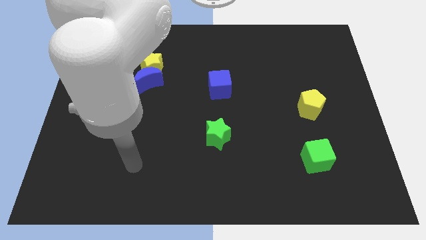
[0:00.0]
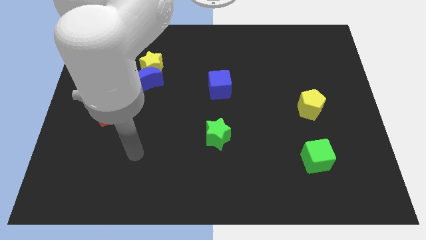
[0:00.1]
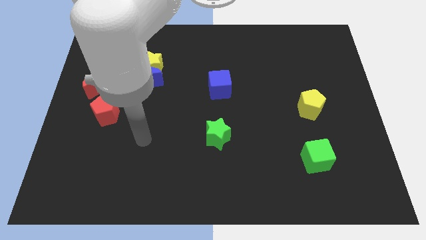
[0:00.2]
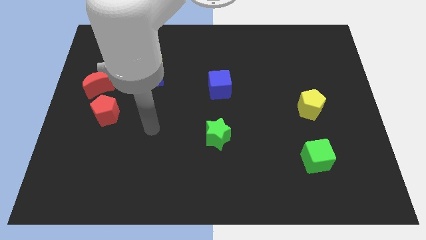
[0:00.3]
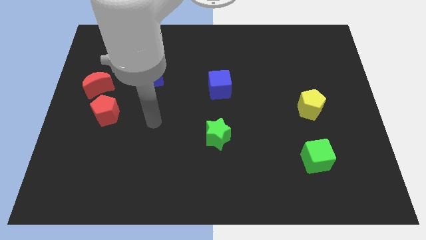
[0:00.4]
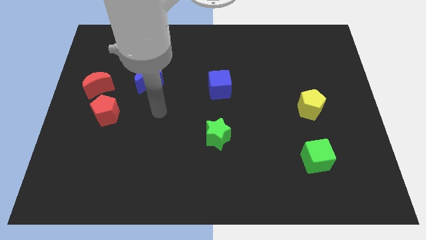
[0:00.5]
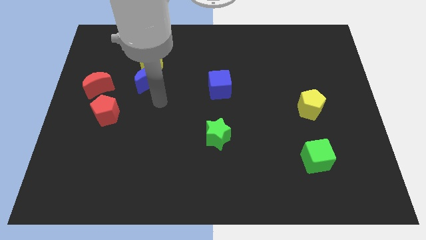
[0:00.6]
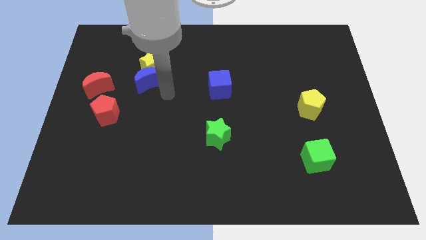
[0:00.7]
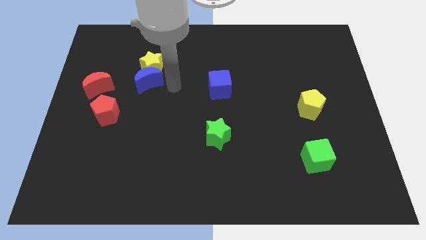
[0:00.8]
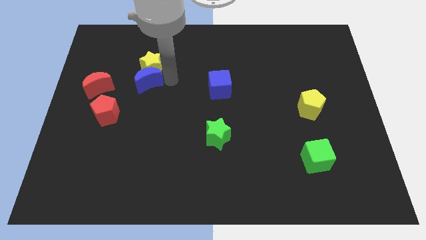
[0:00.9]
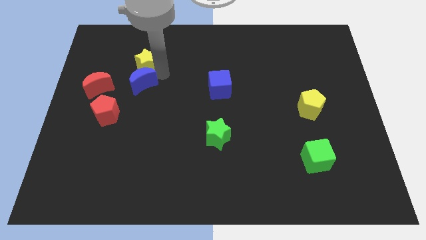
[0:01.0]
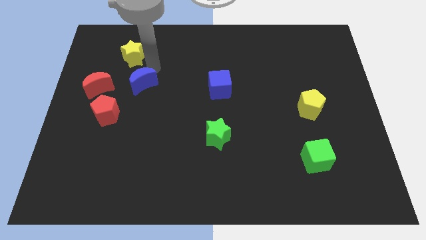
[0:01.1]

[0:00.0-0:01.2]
move the blue moon away from the yellow star

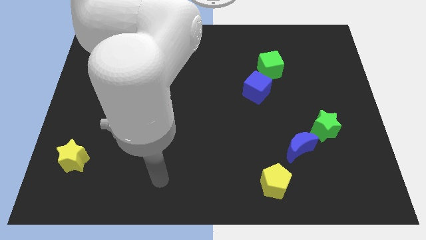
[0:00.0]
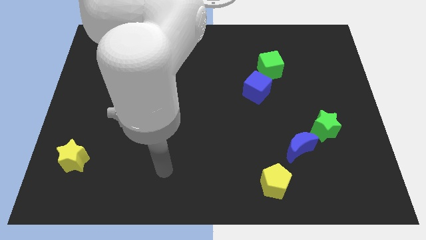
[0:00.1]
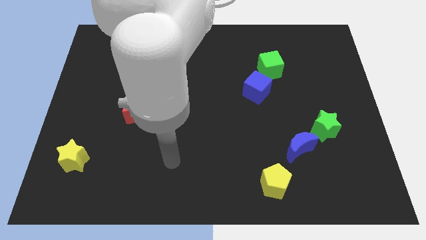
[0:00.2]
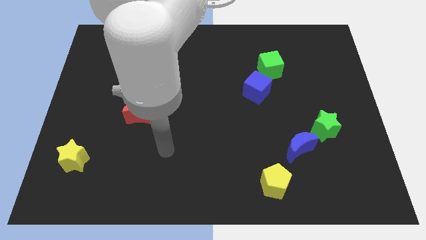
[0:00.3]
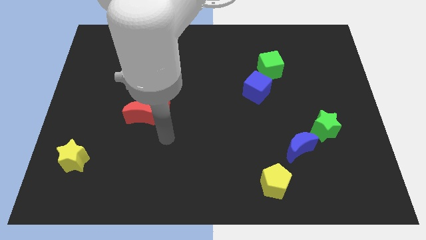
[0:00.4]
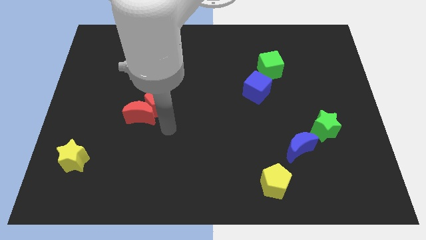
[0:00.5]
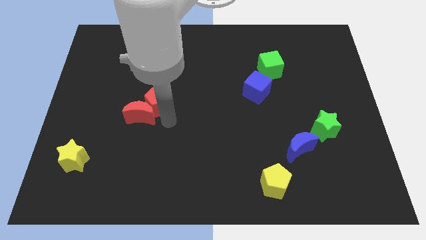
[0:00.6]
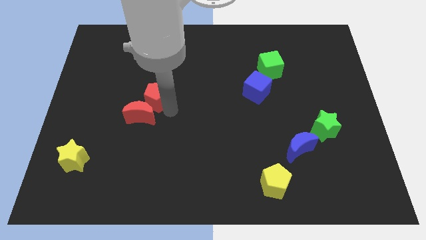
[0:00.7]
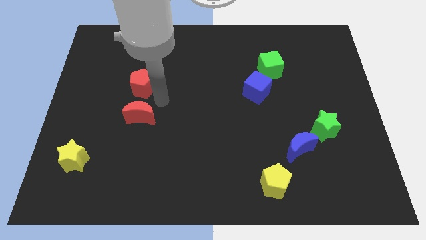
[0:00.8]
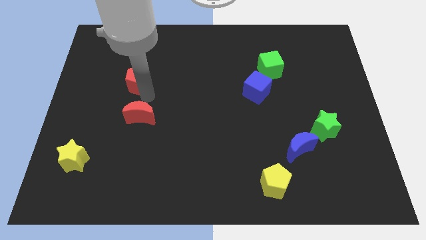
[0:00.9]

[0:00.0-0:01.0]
move the red moon away from the red pentagon

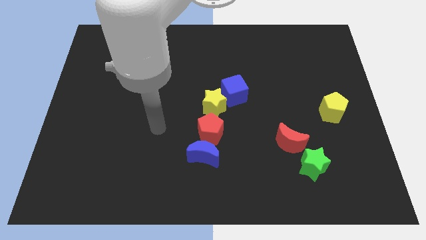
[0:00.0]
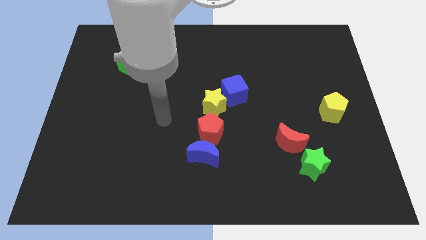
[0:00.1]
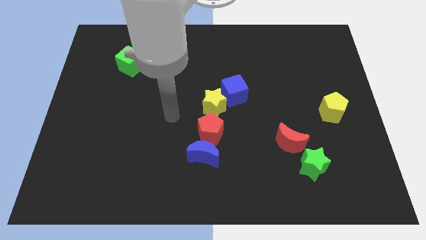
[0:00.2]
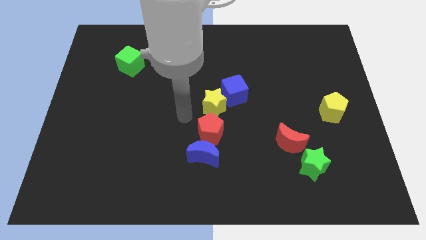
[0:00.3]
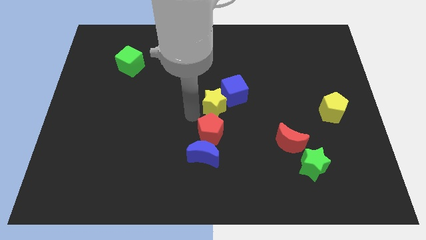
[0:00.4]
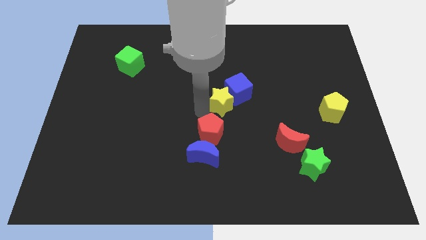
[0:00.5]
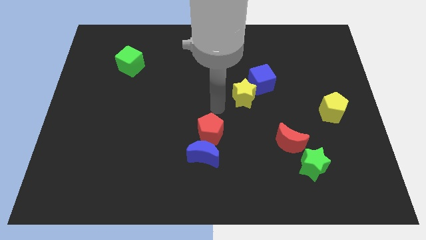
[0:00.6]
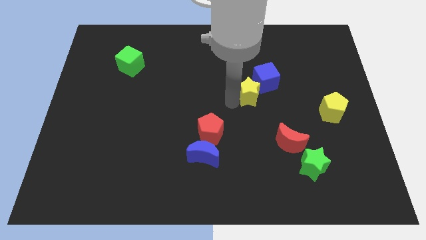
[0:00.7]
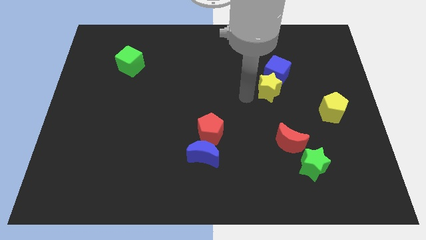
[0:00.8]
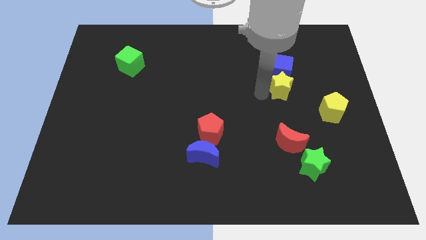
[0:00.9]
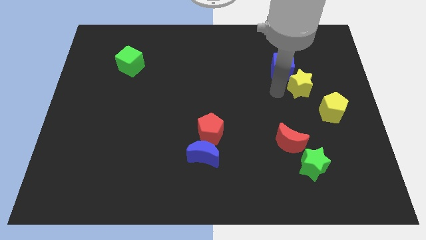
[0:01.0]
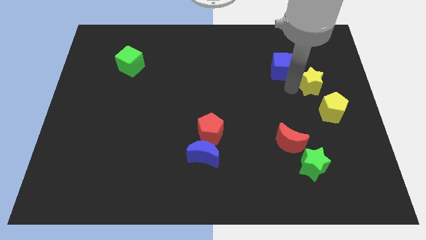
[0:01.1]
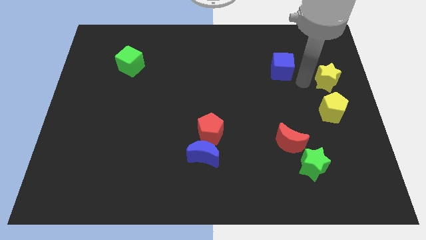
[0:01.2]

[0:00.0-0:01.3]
pull the blue cube apart from the yellow star

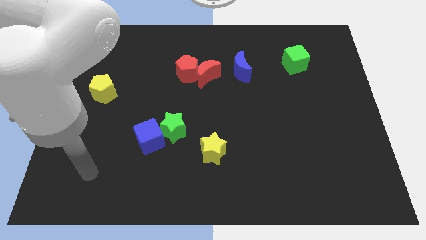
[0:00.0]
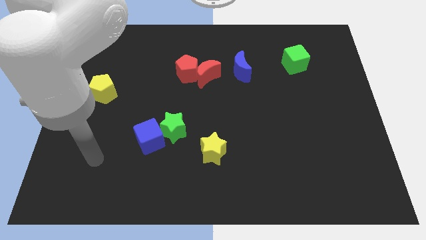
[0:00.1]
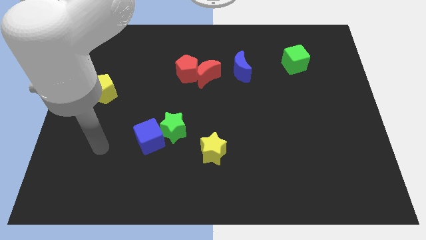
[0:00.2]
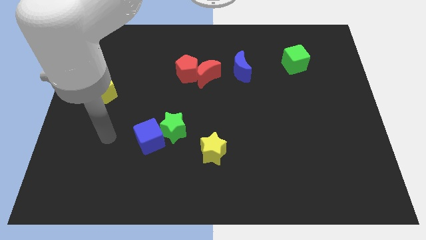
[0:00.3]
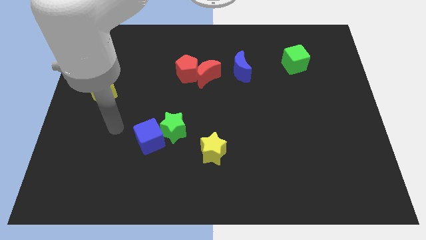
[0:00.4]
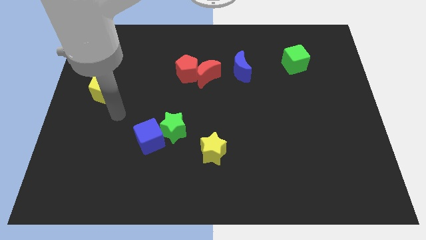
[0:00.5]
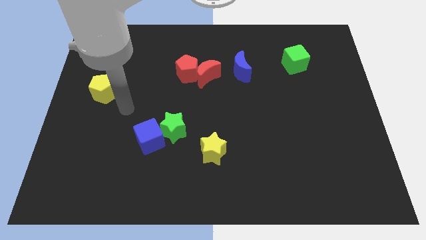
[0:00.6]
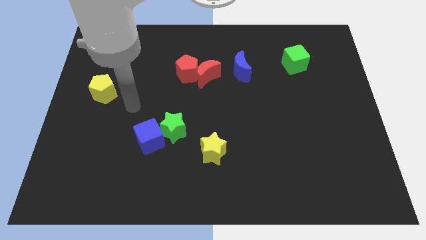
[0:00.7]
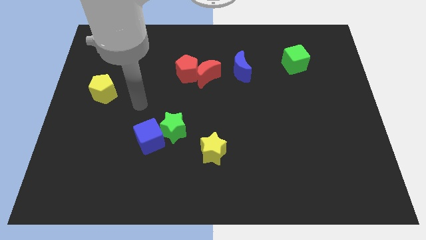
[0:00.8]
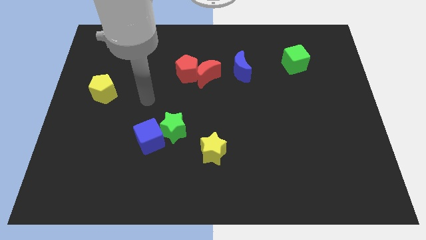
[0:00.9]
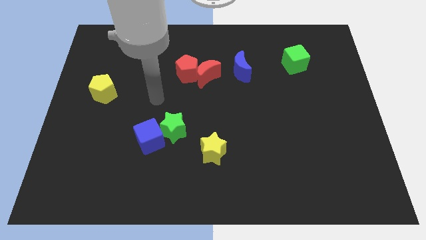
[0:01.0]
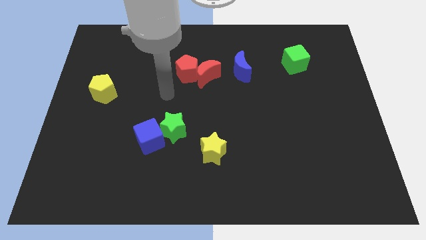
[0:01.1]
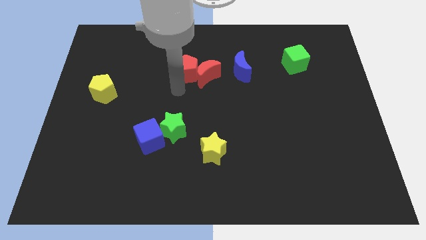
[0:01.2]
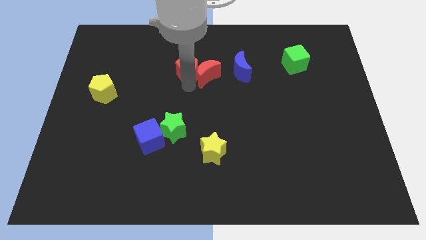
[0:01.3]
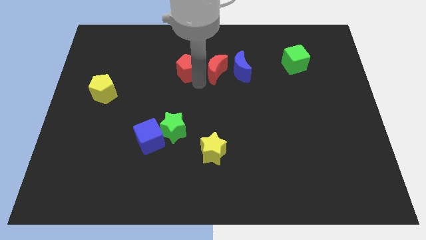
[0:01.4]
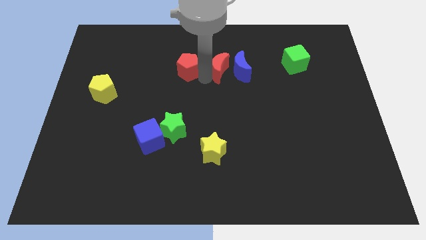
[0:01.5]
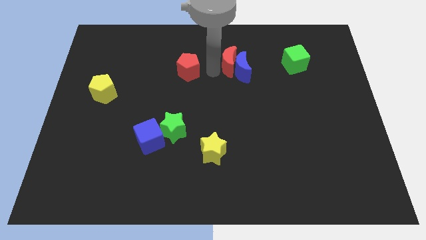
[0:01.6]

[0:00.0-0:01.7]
separate the red pentagon from the red moon

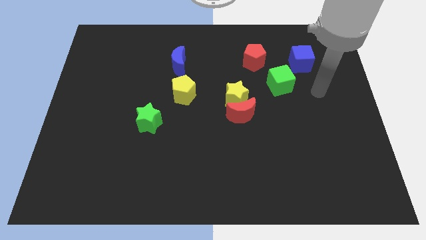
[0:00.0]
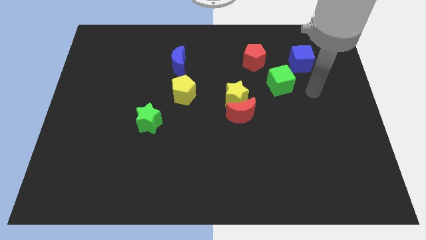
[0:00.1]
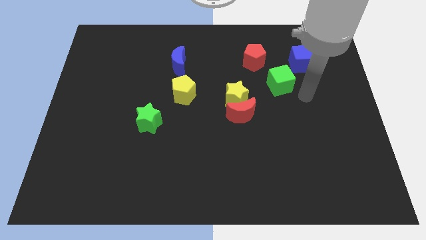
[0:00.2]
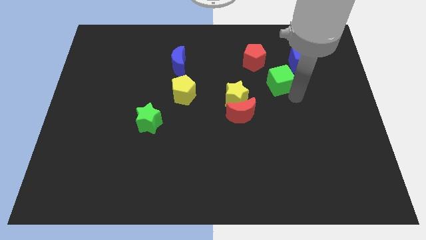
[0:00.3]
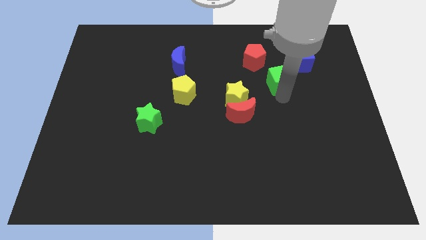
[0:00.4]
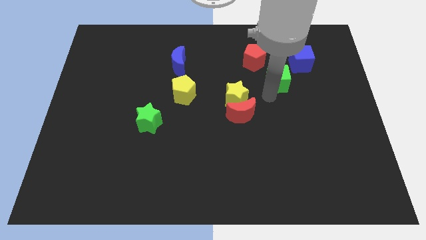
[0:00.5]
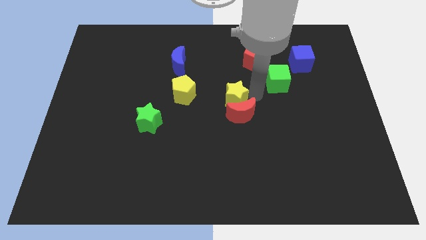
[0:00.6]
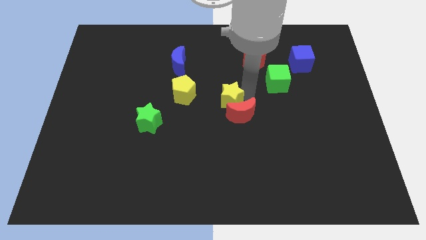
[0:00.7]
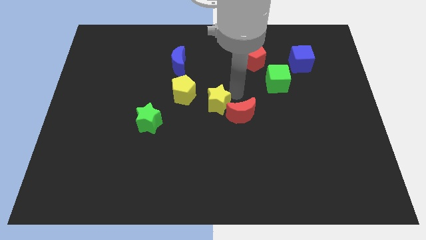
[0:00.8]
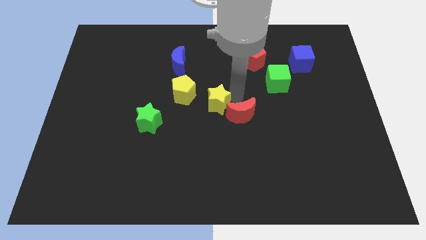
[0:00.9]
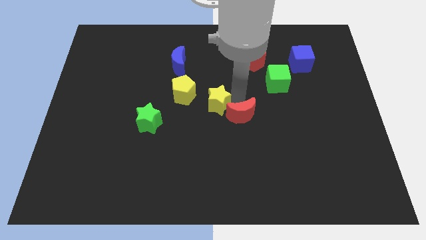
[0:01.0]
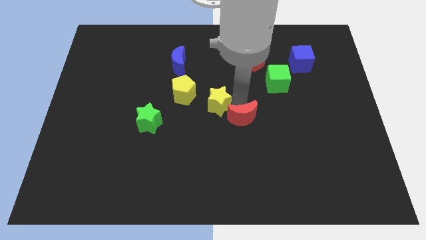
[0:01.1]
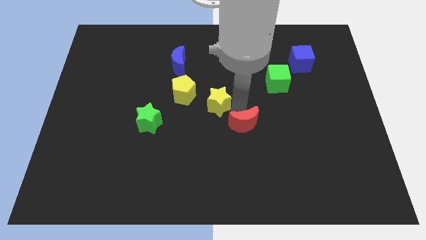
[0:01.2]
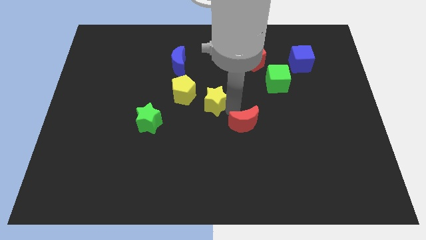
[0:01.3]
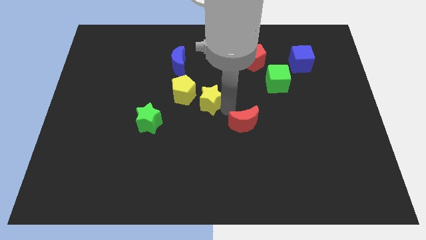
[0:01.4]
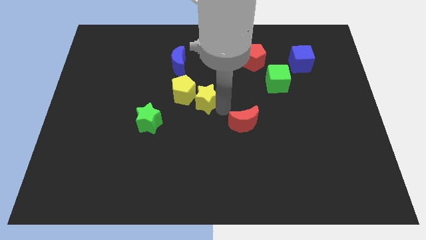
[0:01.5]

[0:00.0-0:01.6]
separate the red moon from the yellow star

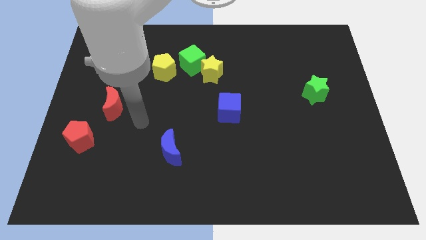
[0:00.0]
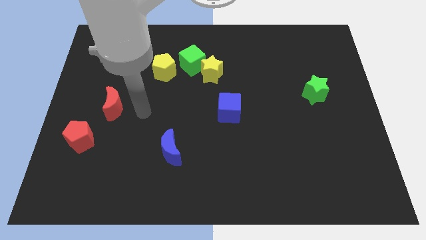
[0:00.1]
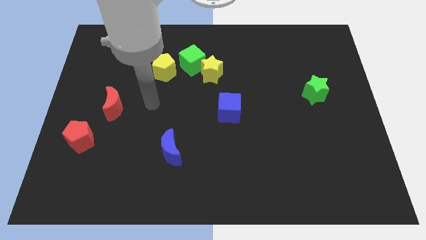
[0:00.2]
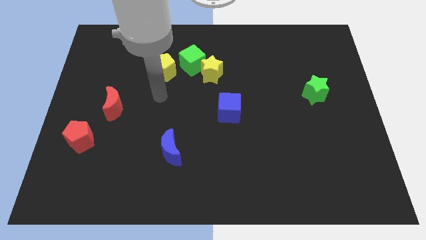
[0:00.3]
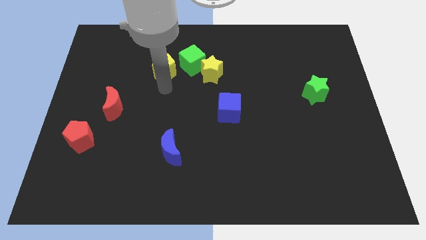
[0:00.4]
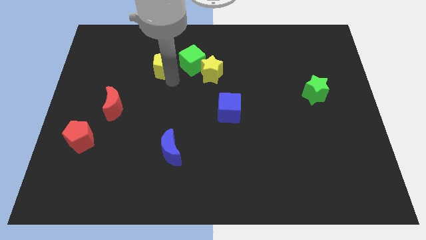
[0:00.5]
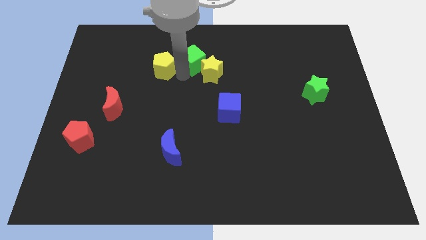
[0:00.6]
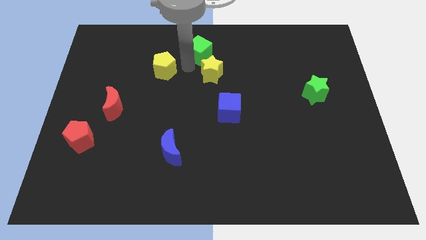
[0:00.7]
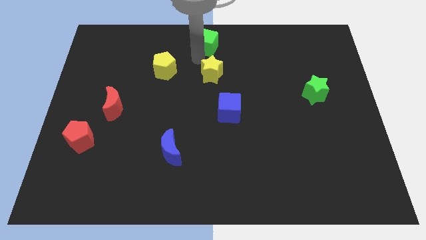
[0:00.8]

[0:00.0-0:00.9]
move the yellow star away from the green cube

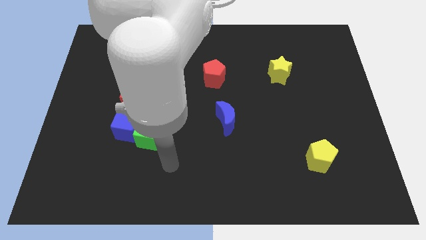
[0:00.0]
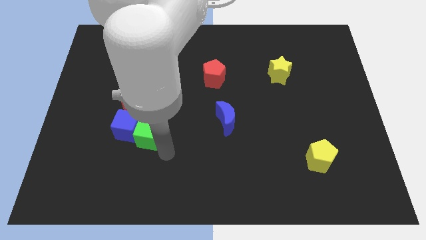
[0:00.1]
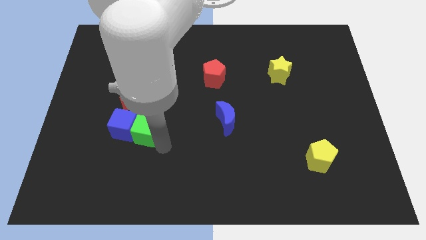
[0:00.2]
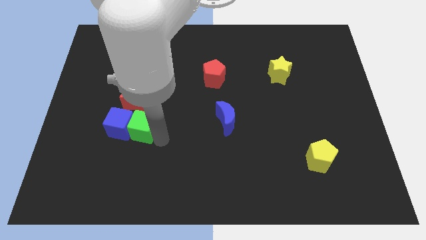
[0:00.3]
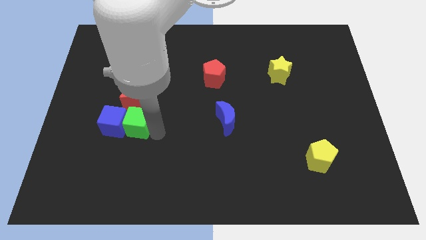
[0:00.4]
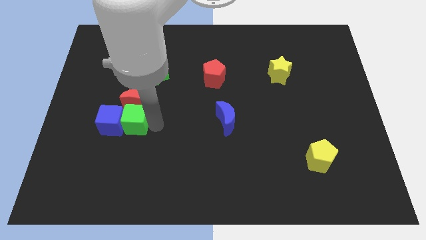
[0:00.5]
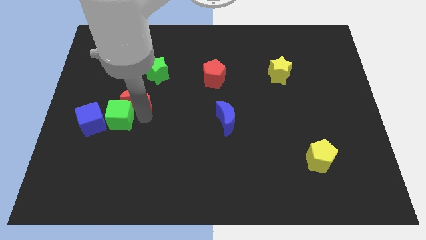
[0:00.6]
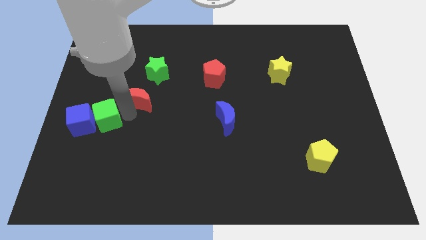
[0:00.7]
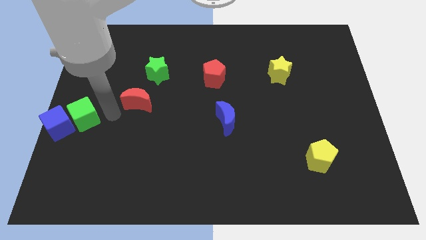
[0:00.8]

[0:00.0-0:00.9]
move the blue cube away from the green cube and red moon

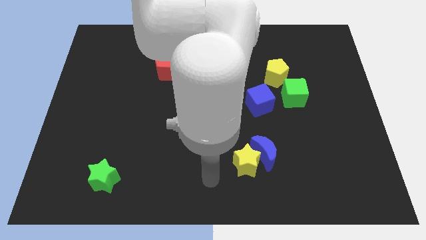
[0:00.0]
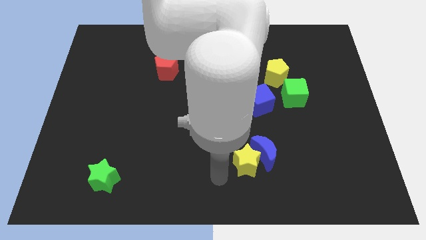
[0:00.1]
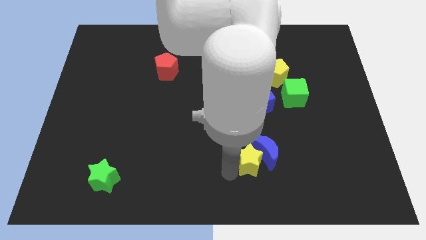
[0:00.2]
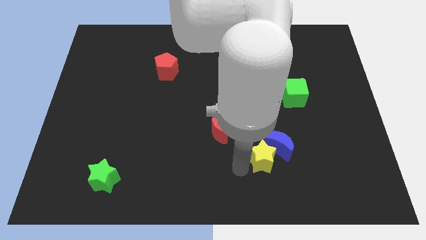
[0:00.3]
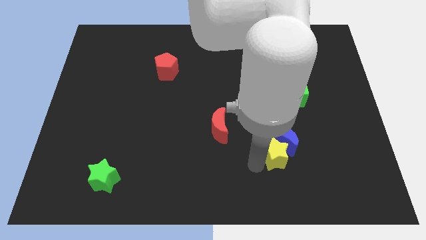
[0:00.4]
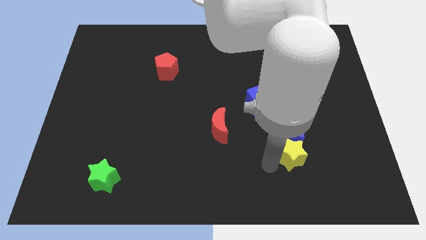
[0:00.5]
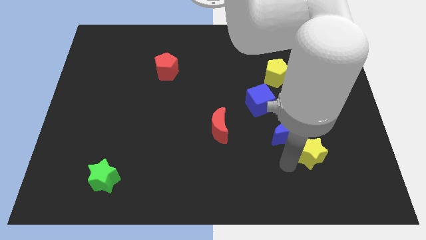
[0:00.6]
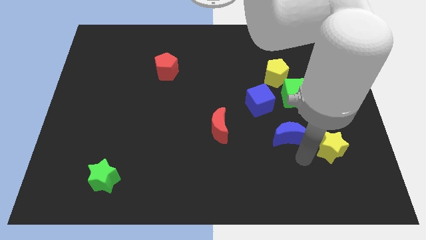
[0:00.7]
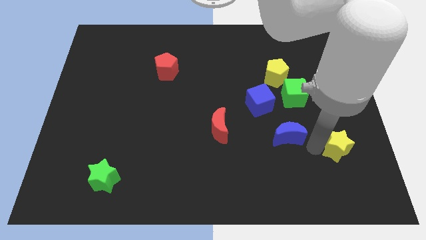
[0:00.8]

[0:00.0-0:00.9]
separate the blue moon from the yellow star
